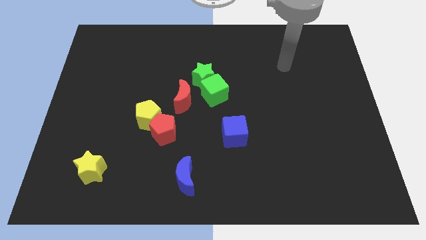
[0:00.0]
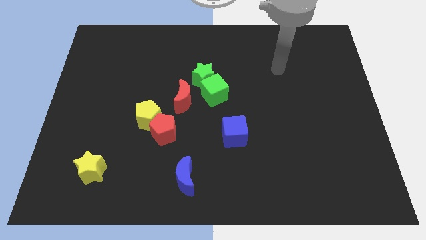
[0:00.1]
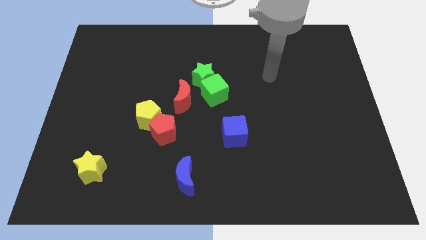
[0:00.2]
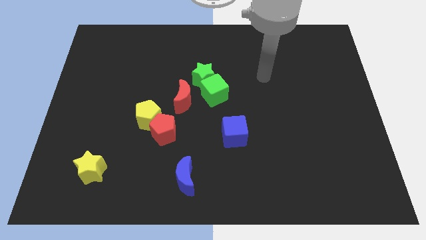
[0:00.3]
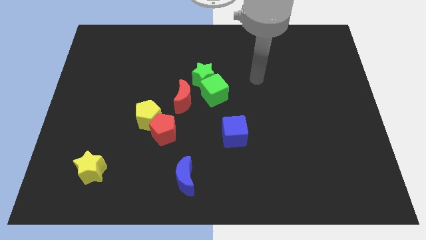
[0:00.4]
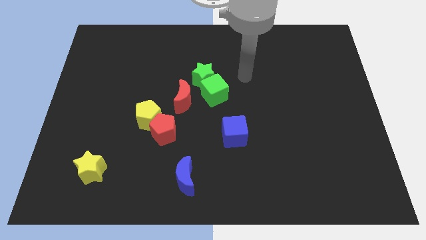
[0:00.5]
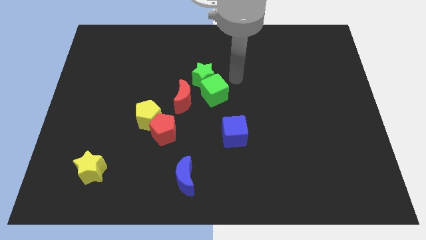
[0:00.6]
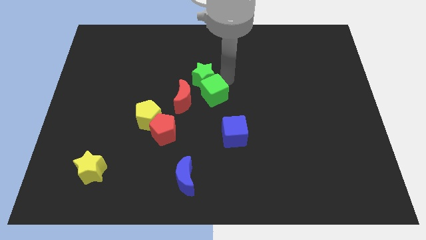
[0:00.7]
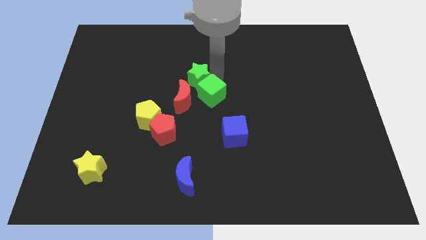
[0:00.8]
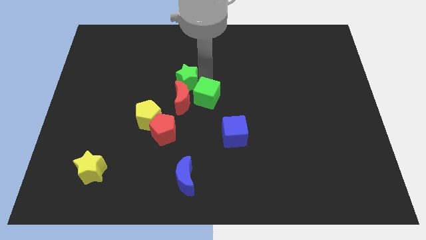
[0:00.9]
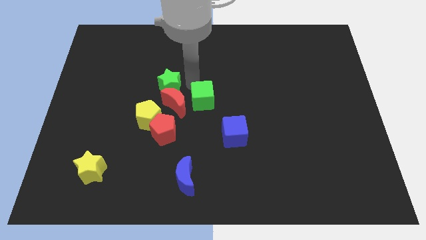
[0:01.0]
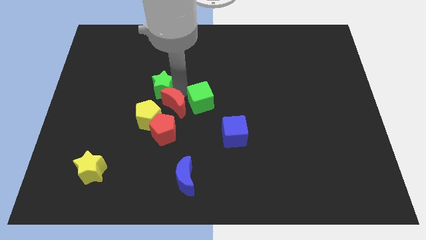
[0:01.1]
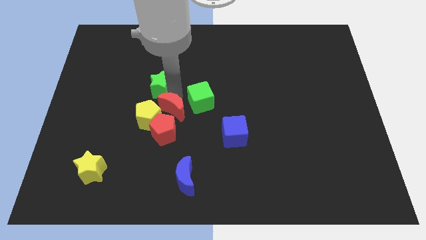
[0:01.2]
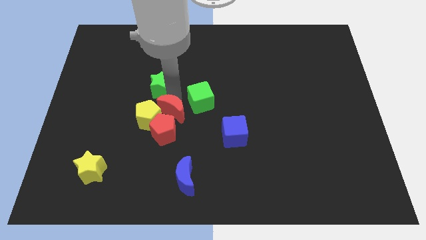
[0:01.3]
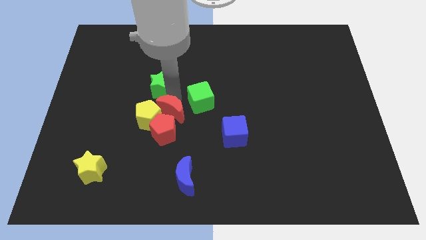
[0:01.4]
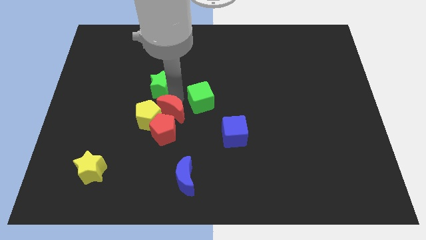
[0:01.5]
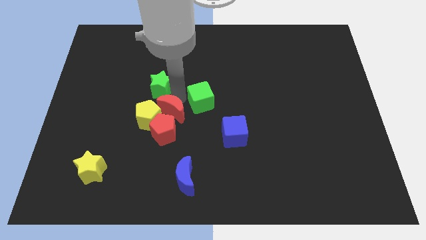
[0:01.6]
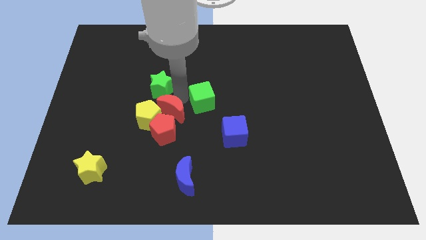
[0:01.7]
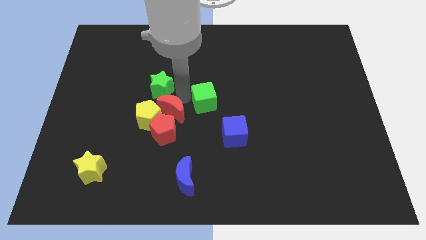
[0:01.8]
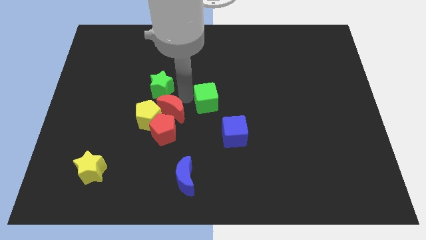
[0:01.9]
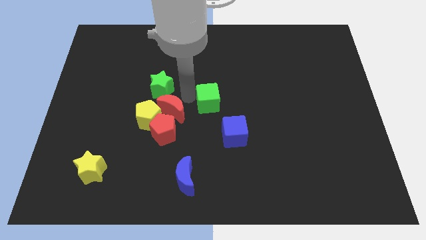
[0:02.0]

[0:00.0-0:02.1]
separate the green cube from the green star and red moon

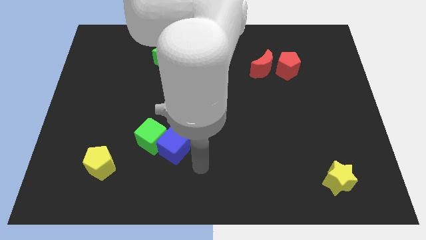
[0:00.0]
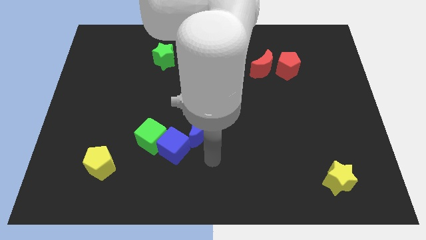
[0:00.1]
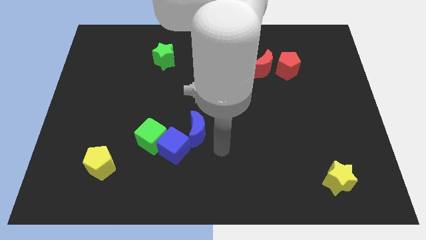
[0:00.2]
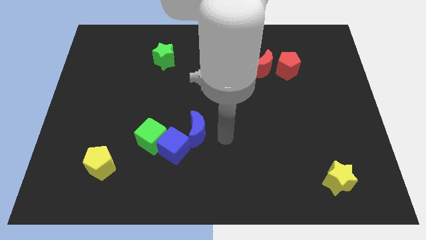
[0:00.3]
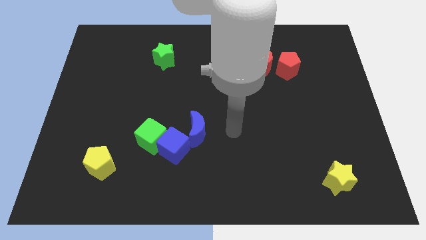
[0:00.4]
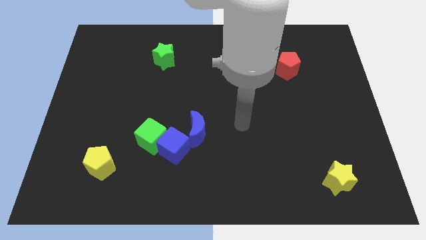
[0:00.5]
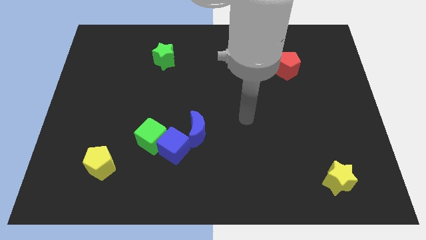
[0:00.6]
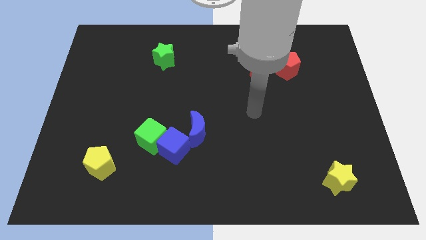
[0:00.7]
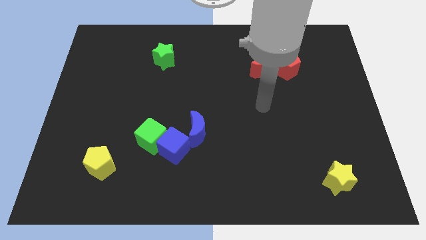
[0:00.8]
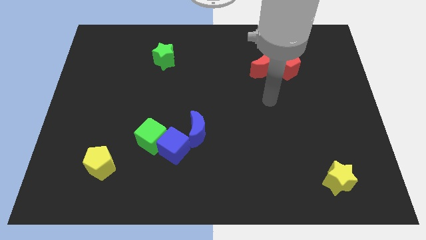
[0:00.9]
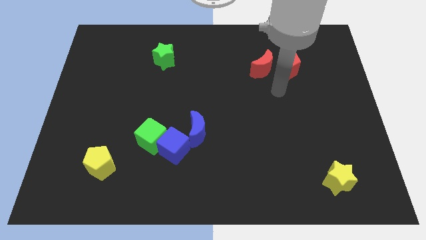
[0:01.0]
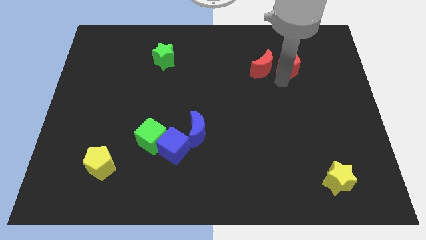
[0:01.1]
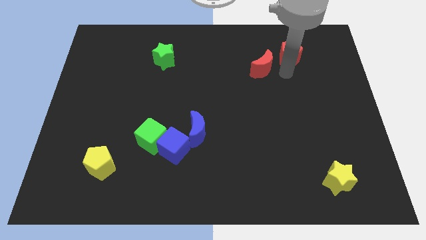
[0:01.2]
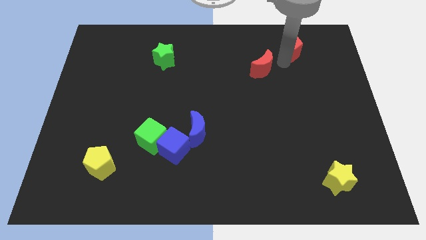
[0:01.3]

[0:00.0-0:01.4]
move the red moon away from the red pentagon

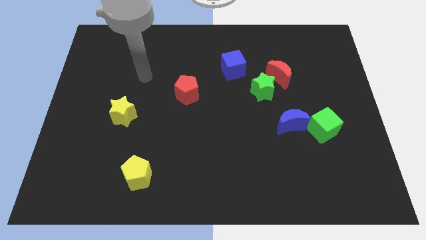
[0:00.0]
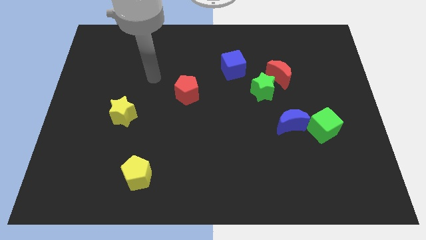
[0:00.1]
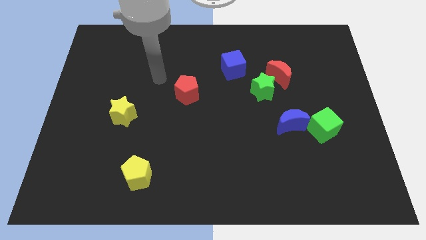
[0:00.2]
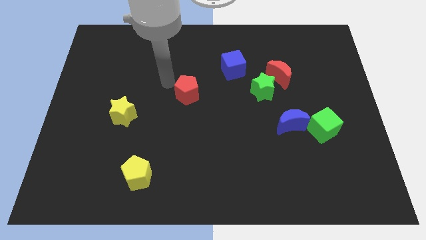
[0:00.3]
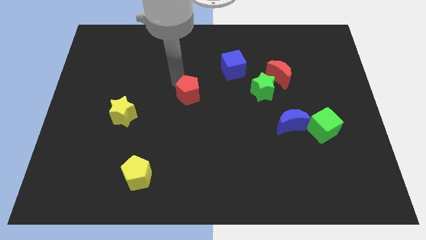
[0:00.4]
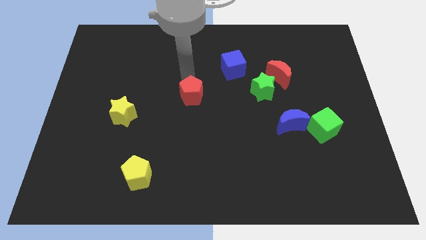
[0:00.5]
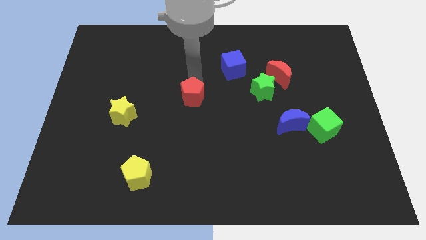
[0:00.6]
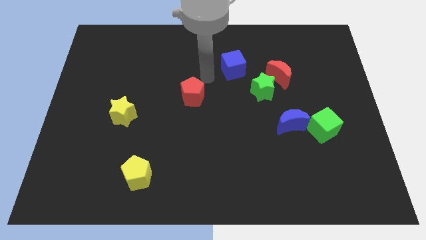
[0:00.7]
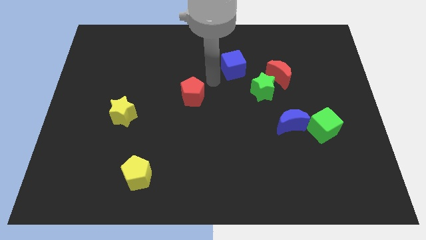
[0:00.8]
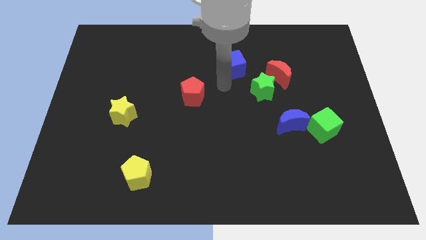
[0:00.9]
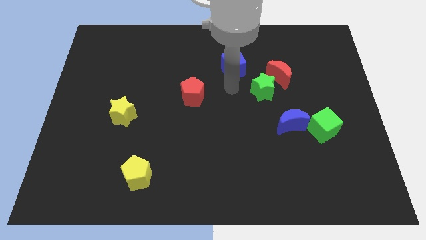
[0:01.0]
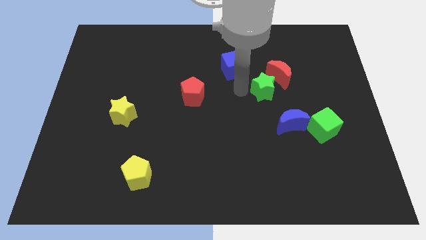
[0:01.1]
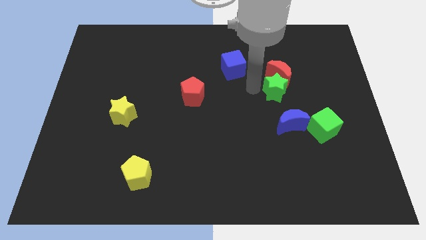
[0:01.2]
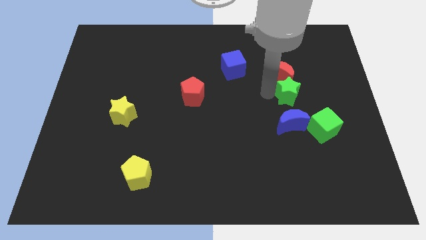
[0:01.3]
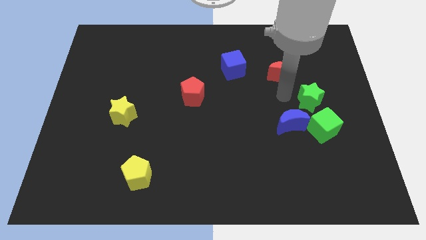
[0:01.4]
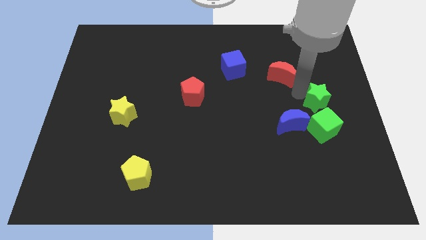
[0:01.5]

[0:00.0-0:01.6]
separate the red moon from the green star

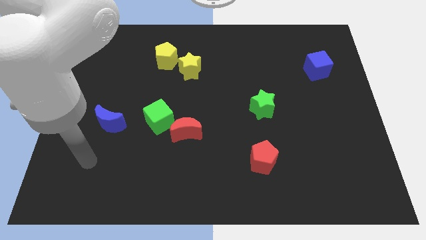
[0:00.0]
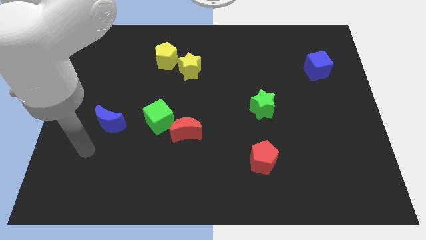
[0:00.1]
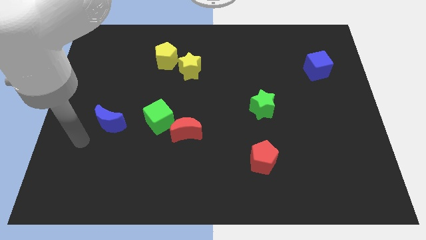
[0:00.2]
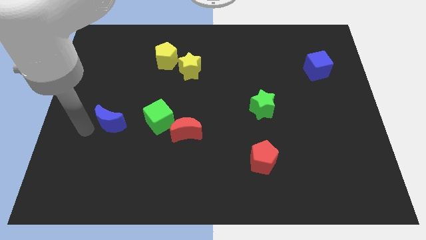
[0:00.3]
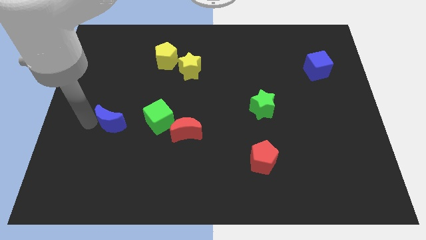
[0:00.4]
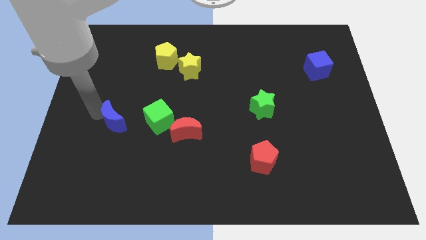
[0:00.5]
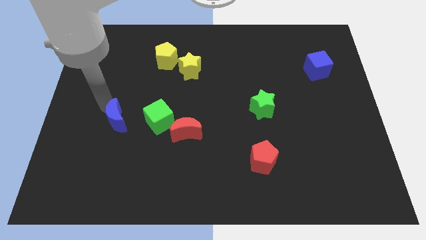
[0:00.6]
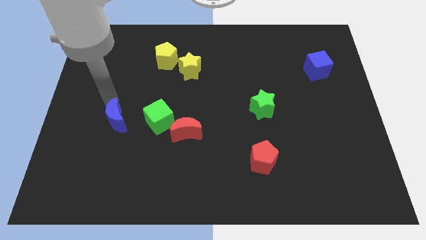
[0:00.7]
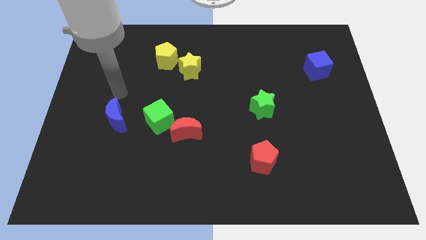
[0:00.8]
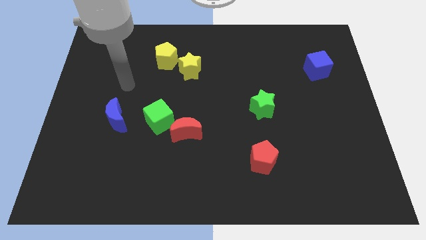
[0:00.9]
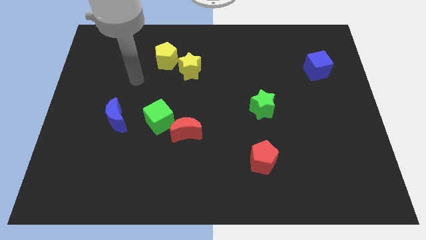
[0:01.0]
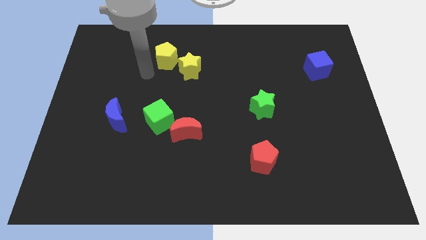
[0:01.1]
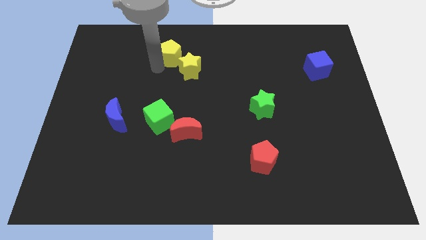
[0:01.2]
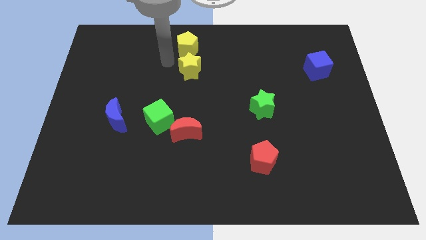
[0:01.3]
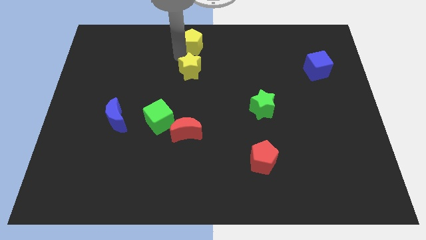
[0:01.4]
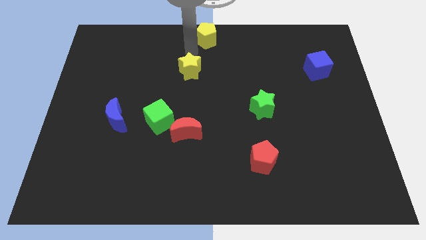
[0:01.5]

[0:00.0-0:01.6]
separate the yellow star from the yellow pentagon

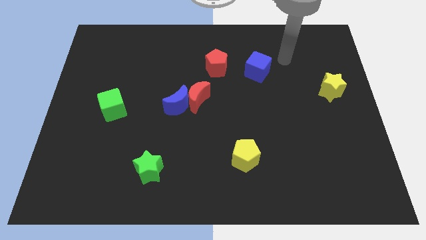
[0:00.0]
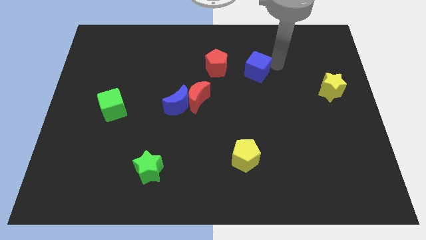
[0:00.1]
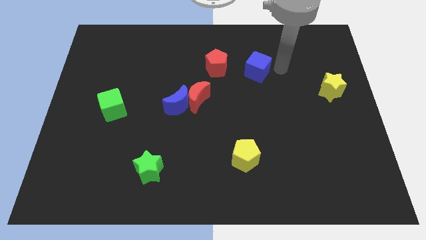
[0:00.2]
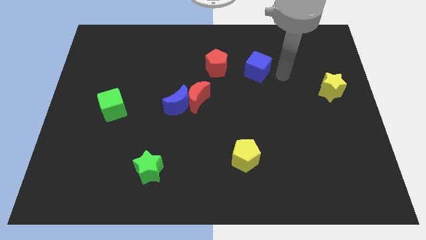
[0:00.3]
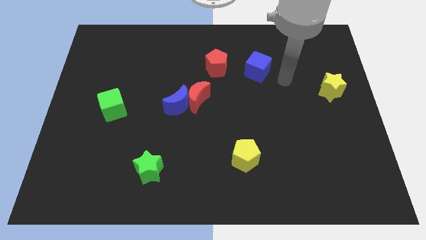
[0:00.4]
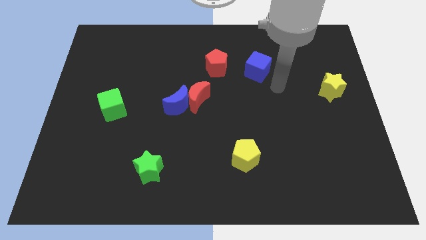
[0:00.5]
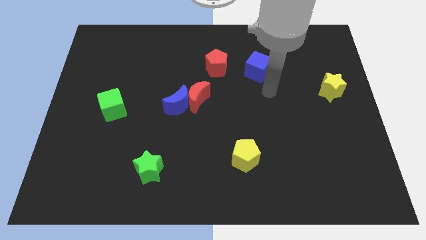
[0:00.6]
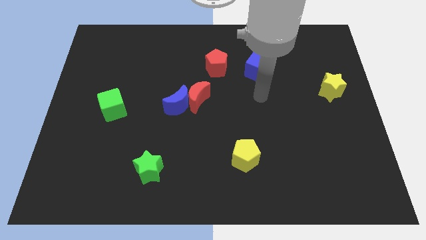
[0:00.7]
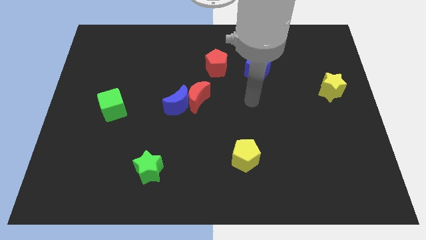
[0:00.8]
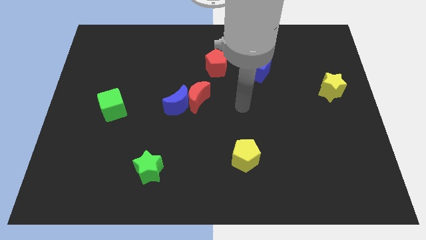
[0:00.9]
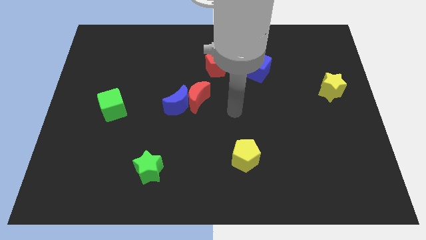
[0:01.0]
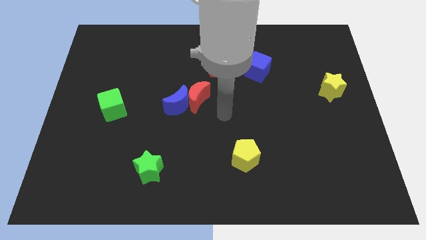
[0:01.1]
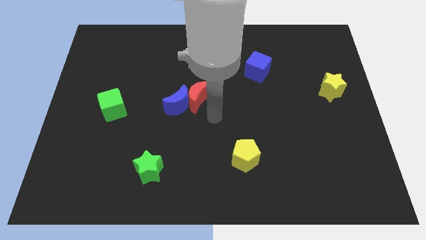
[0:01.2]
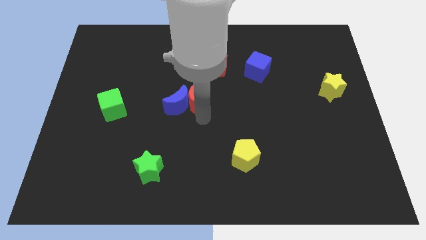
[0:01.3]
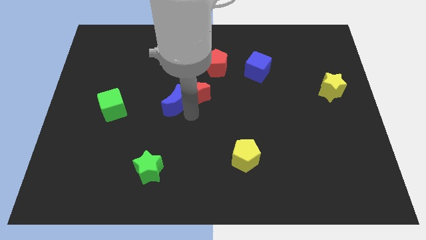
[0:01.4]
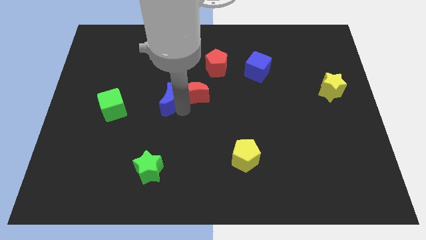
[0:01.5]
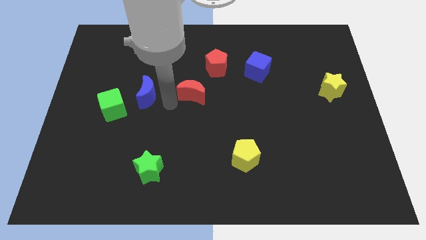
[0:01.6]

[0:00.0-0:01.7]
separate the red moon from the blue moon

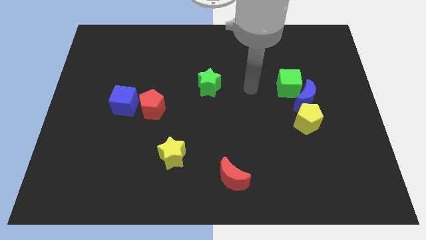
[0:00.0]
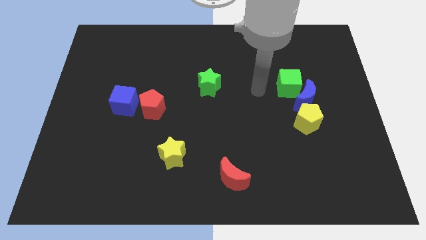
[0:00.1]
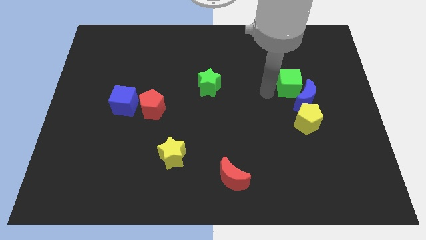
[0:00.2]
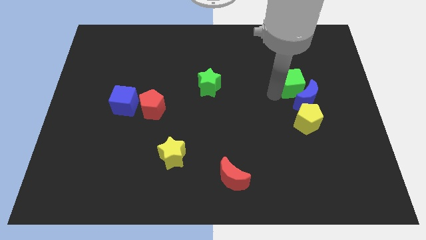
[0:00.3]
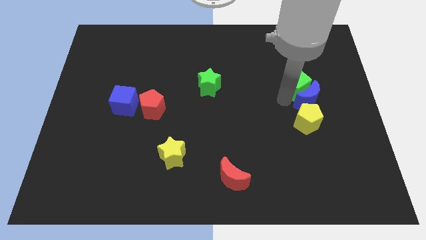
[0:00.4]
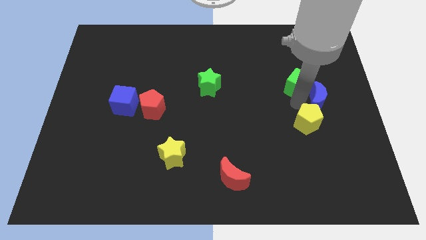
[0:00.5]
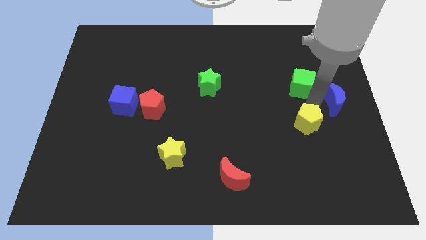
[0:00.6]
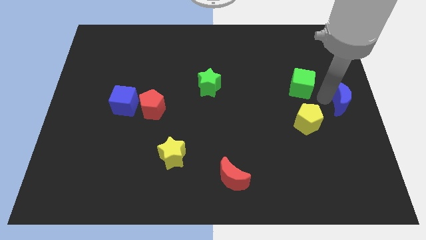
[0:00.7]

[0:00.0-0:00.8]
move the green cube away from the blue moon

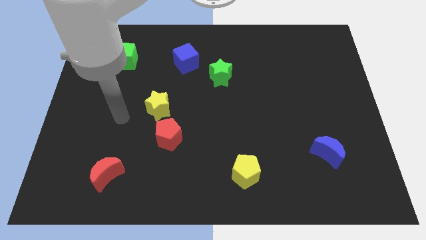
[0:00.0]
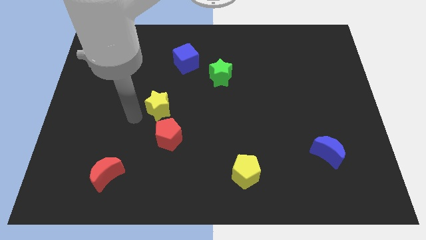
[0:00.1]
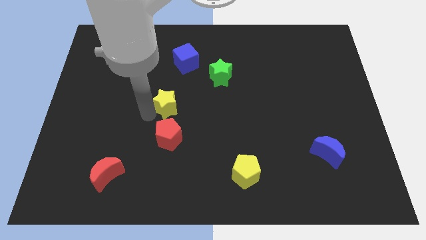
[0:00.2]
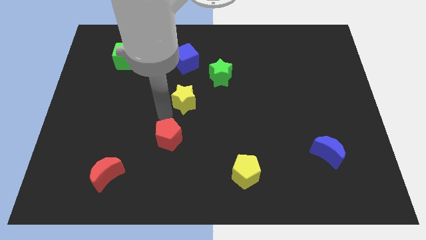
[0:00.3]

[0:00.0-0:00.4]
move the red pentagon away from the yellow star
